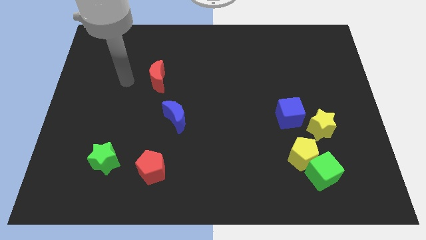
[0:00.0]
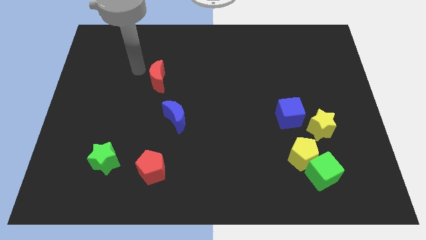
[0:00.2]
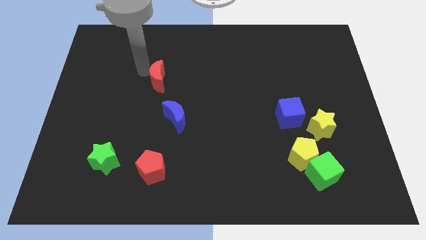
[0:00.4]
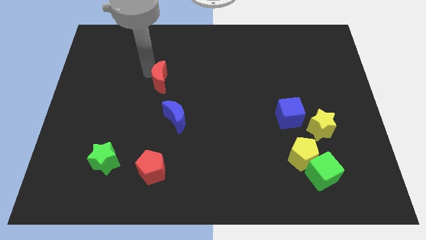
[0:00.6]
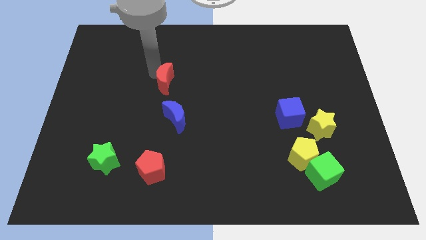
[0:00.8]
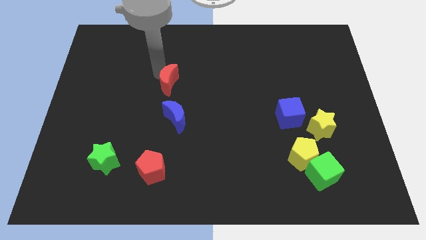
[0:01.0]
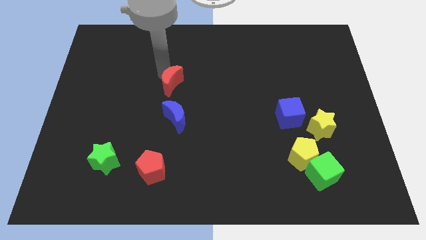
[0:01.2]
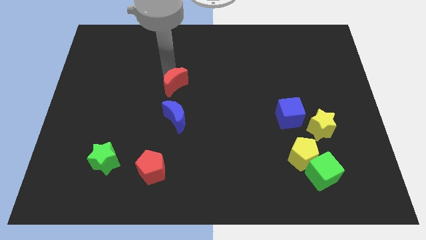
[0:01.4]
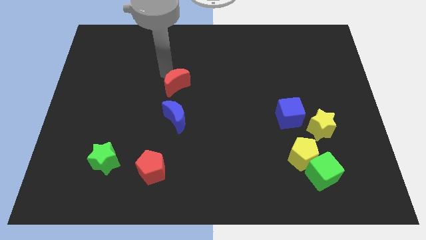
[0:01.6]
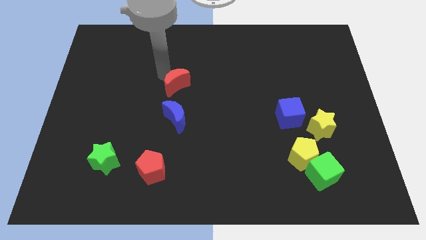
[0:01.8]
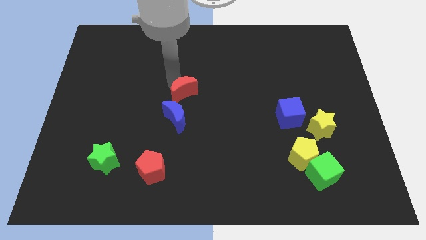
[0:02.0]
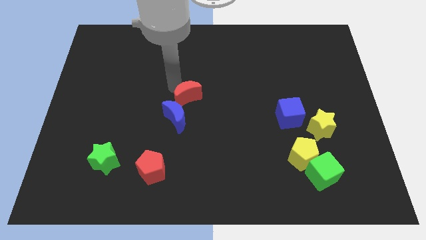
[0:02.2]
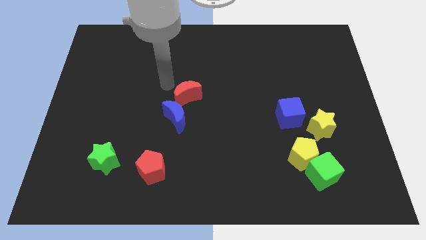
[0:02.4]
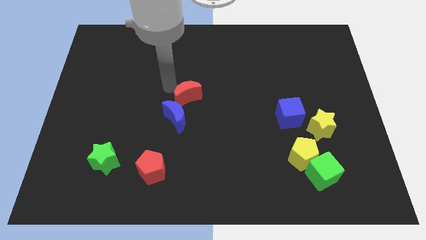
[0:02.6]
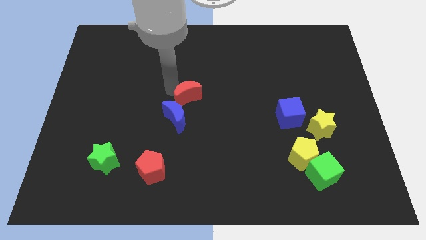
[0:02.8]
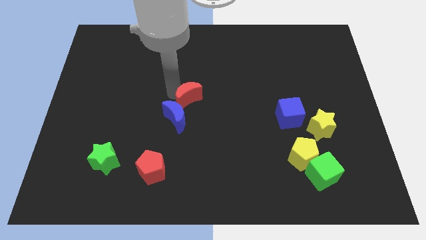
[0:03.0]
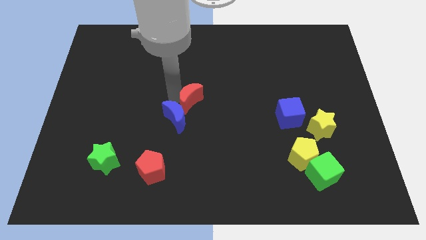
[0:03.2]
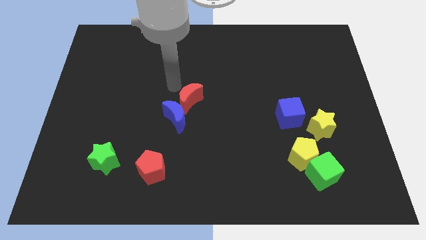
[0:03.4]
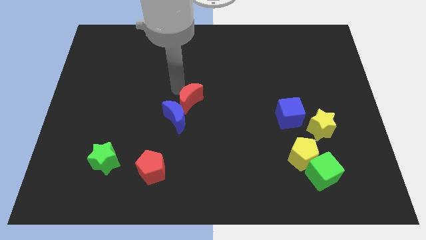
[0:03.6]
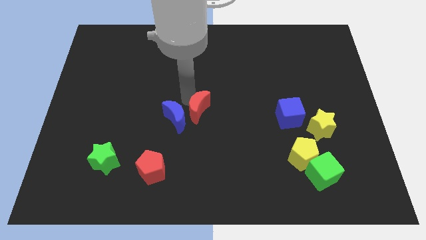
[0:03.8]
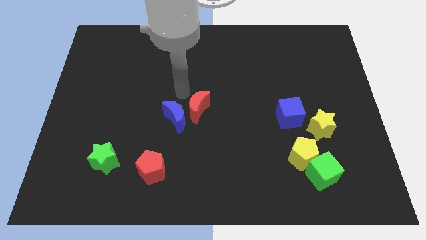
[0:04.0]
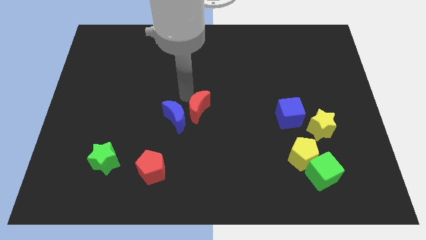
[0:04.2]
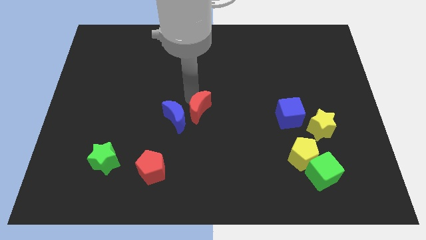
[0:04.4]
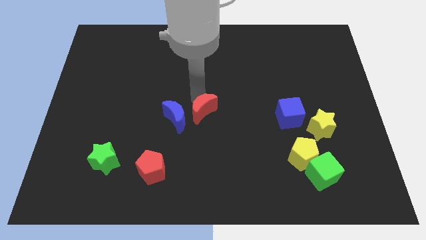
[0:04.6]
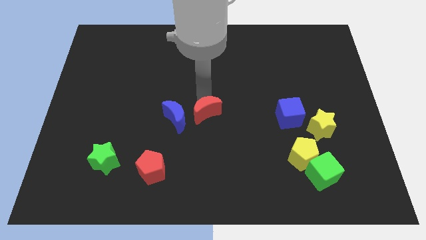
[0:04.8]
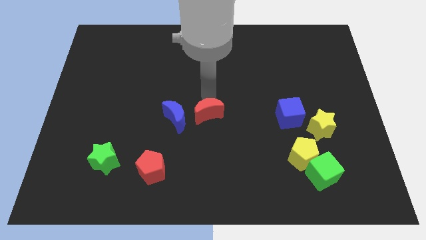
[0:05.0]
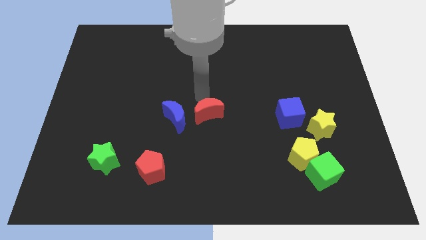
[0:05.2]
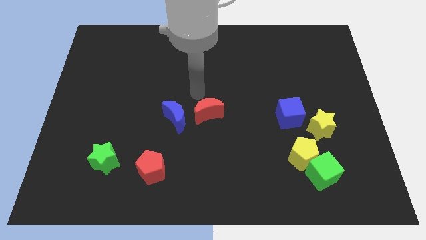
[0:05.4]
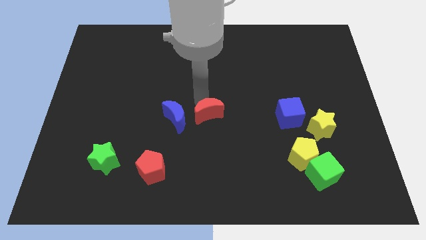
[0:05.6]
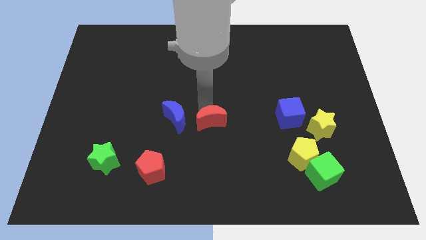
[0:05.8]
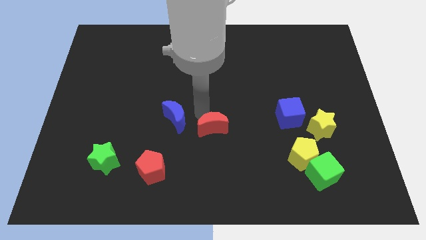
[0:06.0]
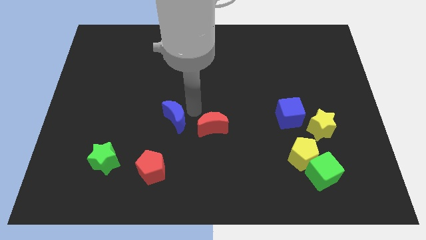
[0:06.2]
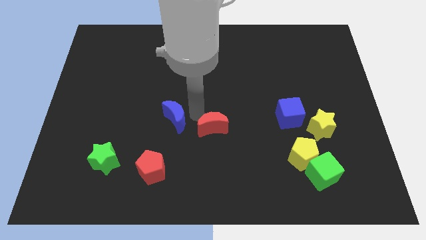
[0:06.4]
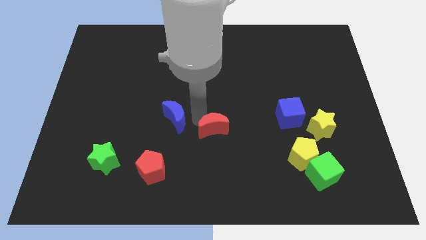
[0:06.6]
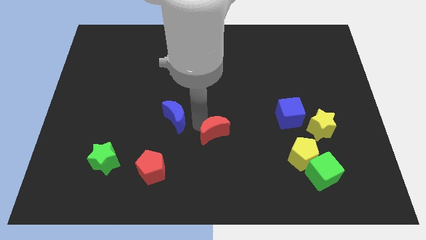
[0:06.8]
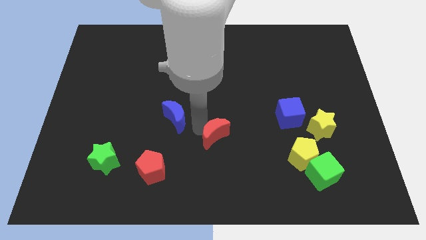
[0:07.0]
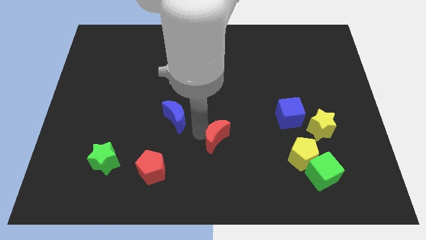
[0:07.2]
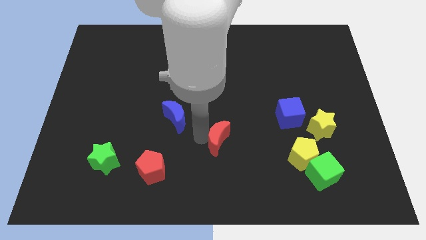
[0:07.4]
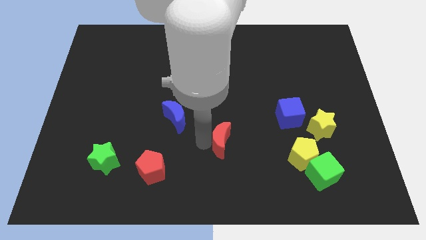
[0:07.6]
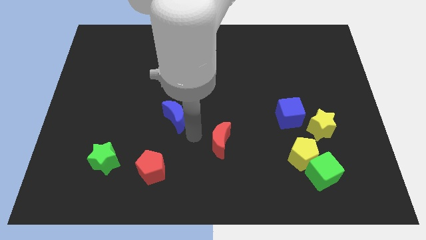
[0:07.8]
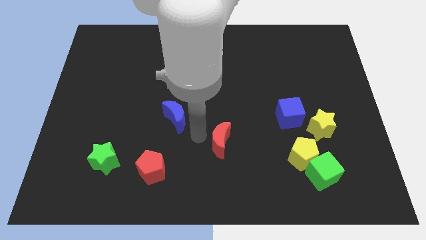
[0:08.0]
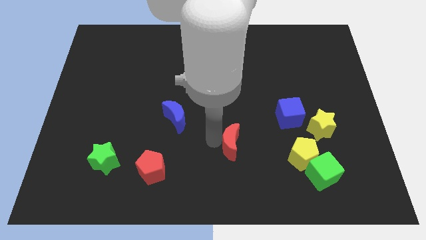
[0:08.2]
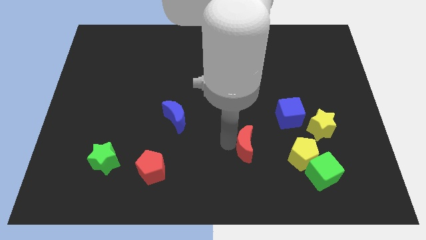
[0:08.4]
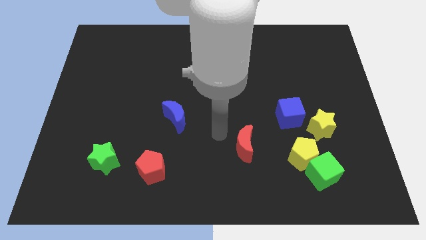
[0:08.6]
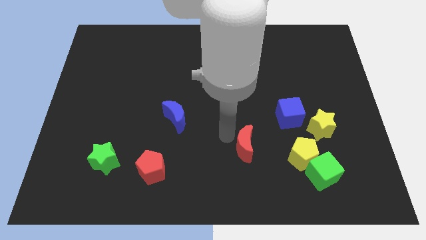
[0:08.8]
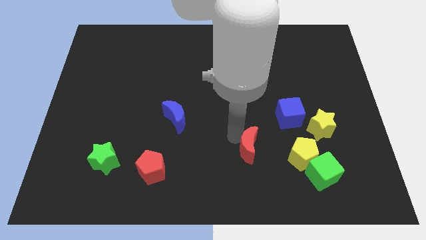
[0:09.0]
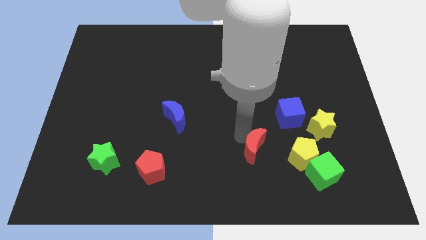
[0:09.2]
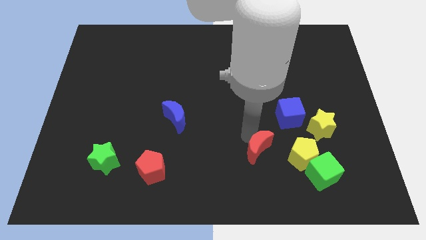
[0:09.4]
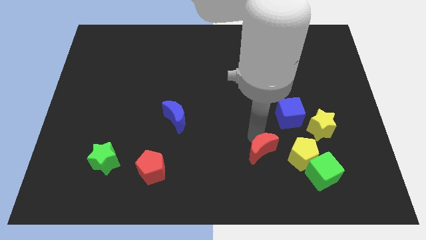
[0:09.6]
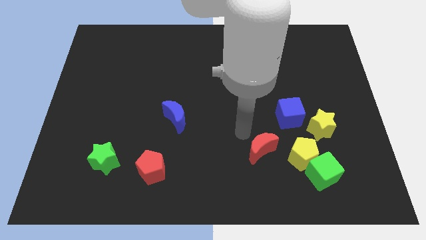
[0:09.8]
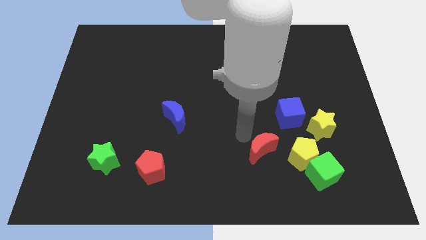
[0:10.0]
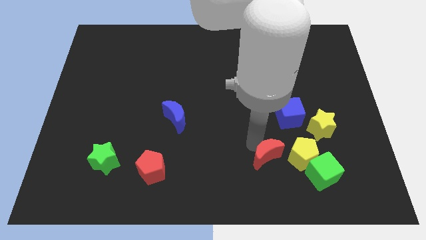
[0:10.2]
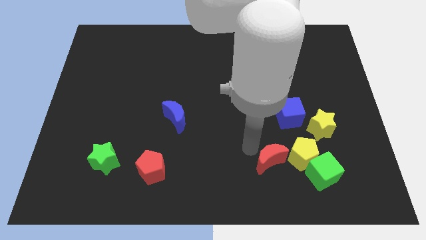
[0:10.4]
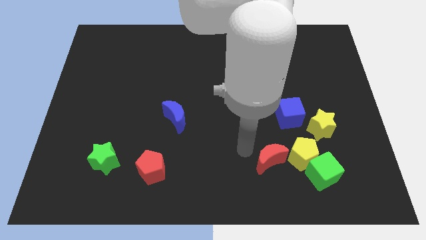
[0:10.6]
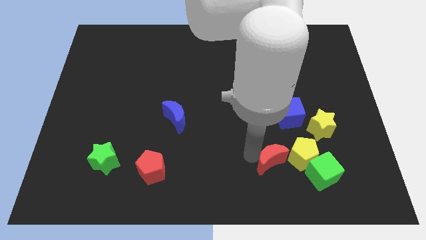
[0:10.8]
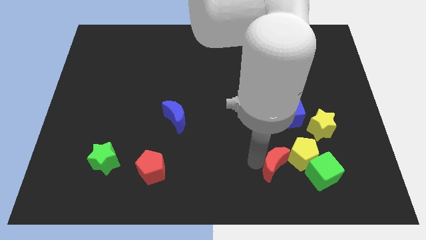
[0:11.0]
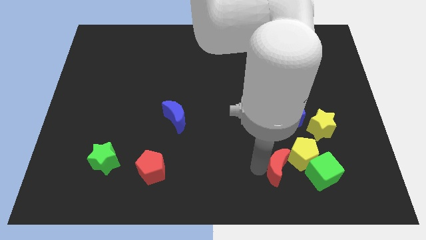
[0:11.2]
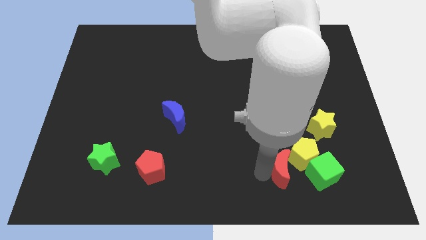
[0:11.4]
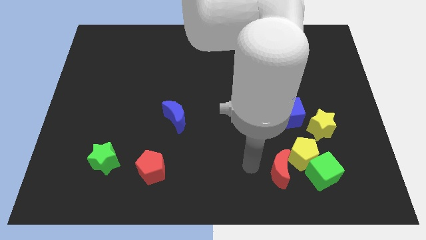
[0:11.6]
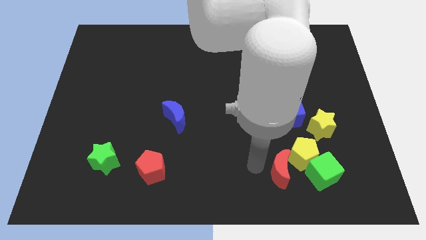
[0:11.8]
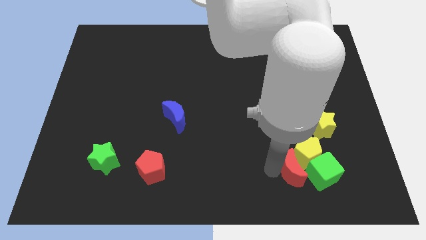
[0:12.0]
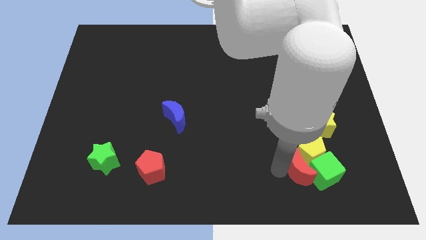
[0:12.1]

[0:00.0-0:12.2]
push the red moon close to the green cube

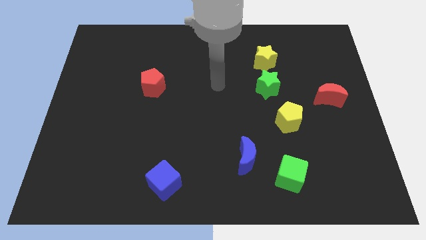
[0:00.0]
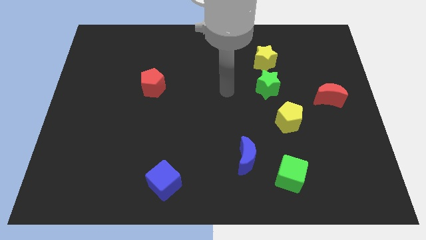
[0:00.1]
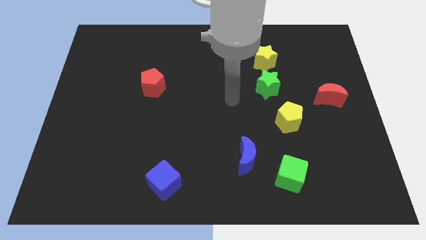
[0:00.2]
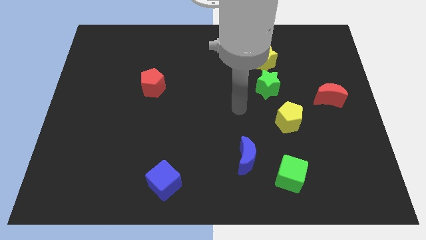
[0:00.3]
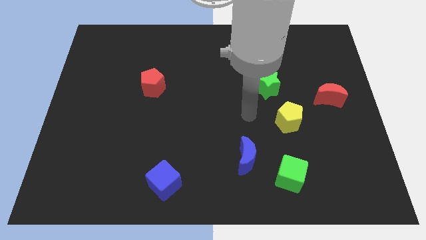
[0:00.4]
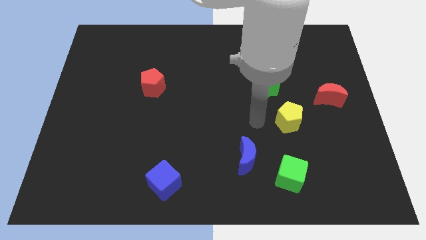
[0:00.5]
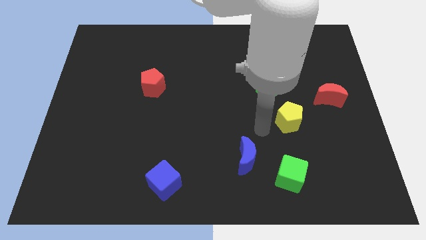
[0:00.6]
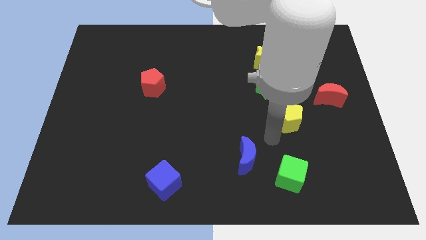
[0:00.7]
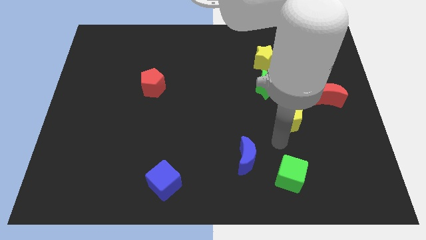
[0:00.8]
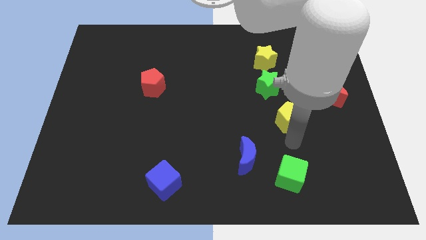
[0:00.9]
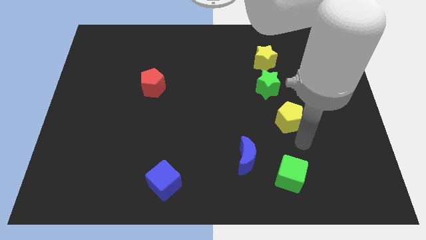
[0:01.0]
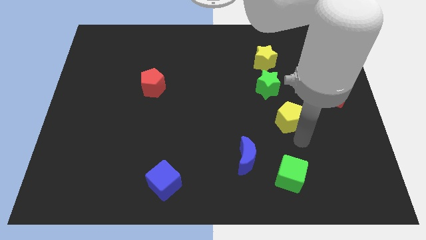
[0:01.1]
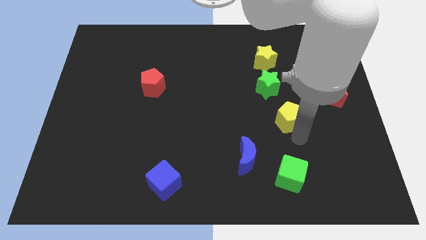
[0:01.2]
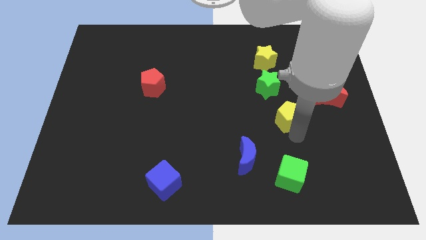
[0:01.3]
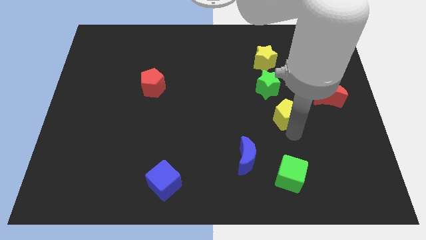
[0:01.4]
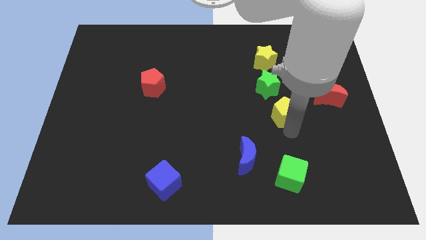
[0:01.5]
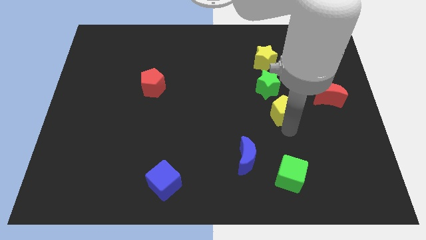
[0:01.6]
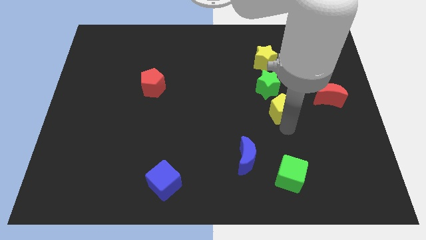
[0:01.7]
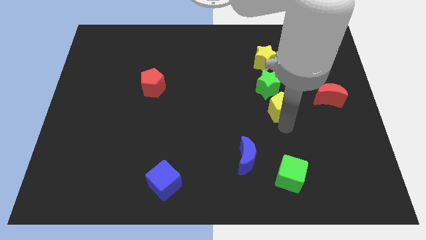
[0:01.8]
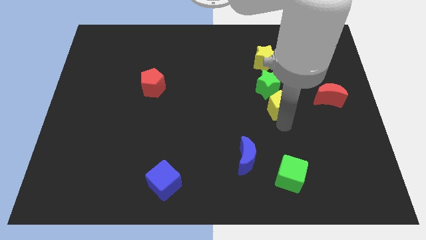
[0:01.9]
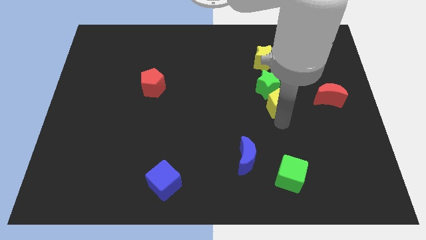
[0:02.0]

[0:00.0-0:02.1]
slide the yellow pentagon next to the green star
